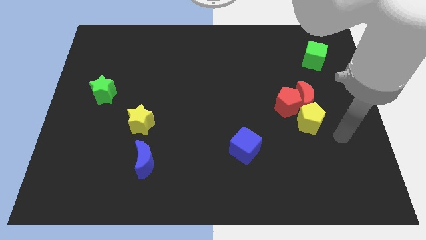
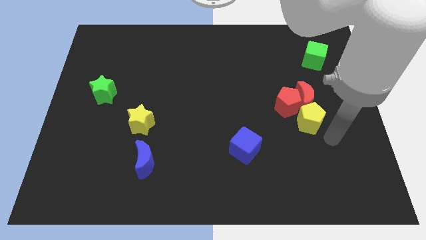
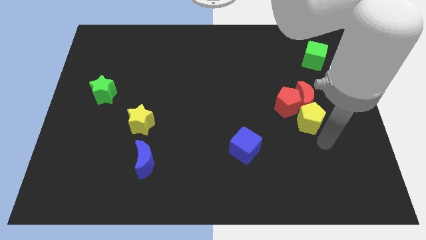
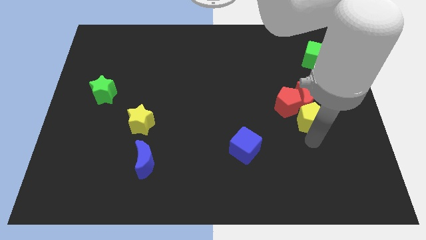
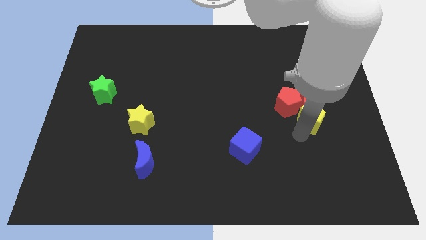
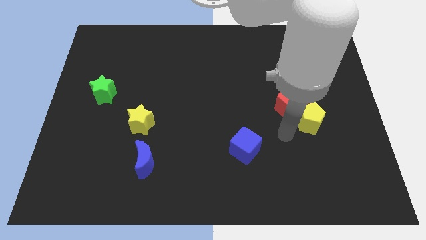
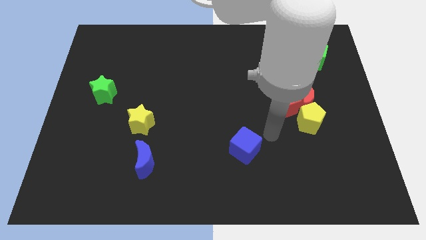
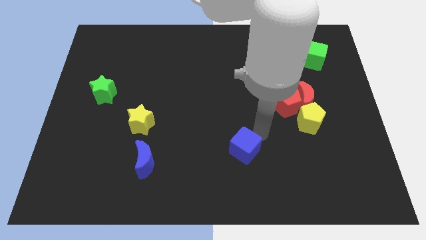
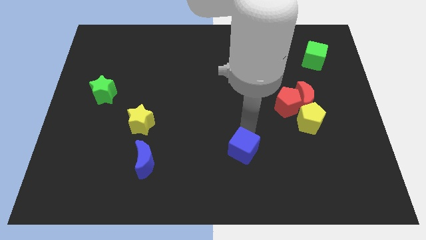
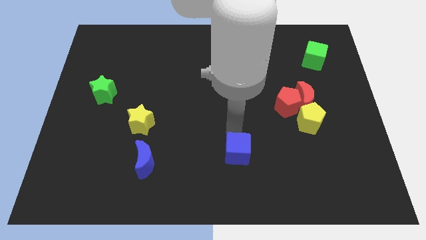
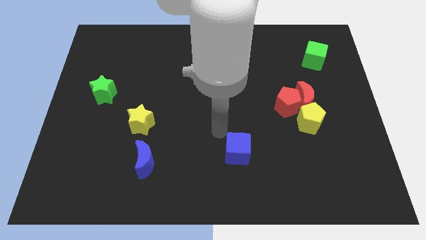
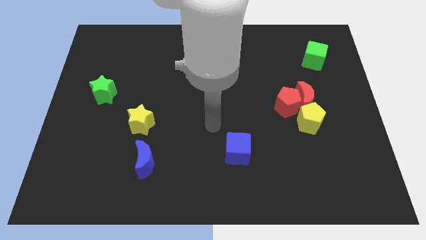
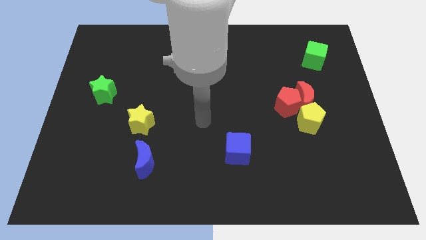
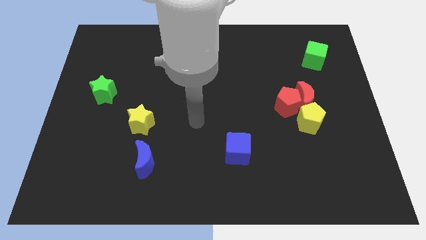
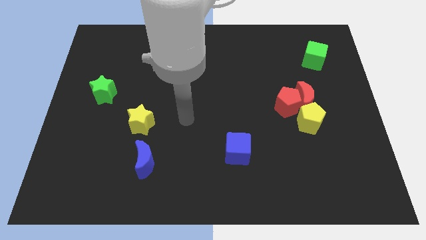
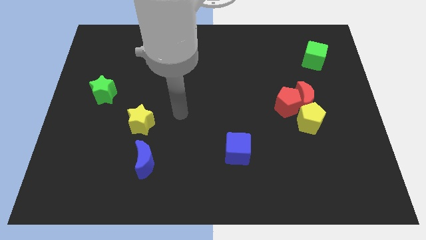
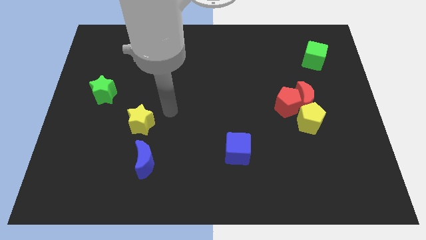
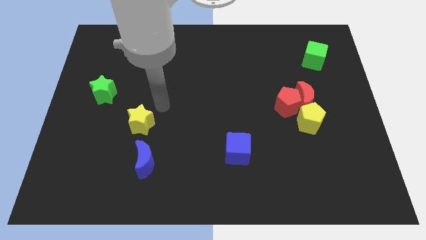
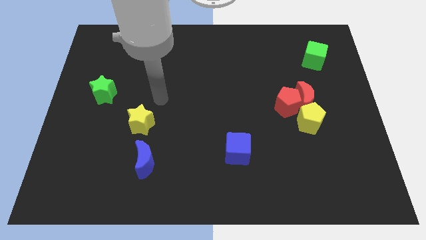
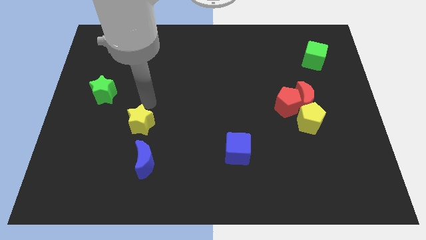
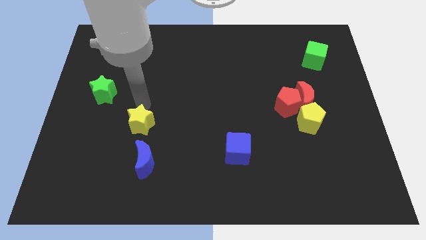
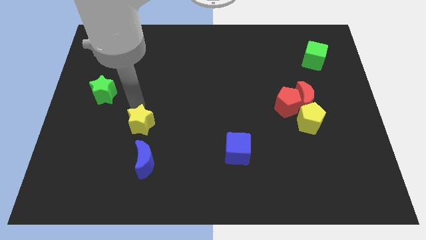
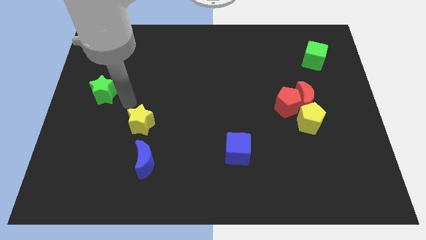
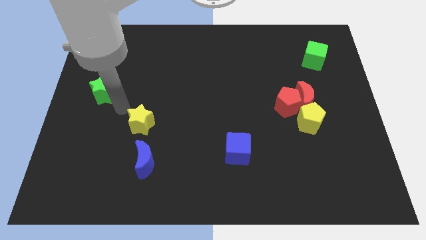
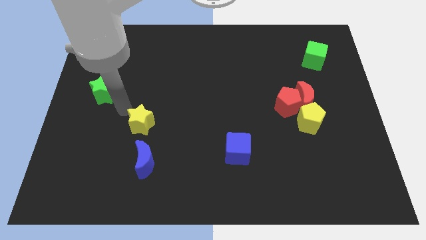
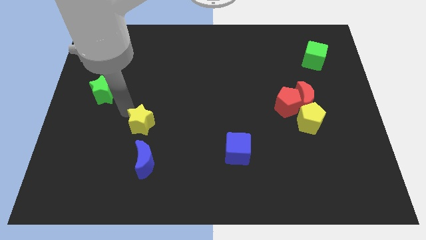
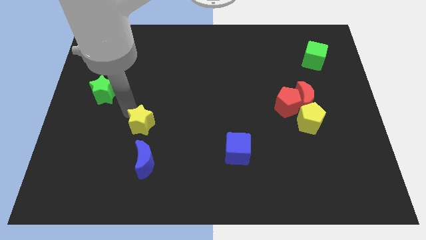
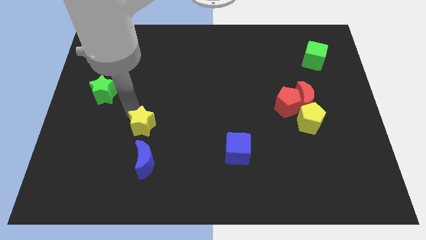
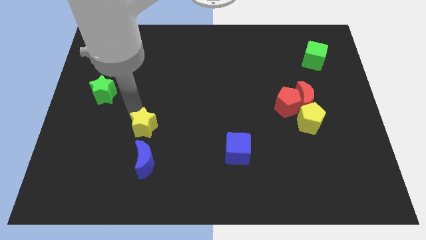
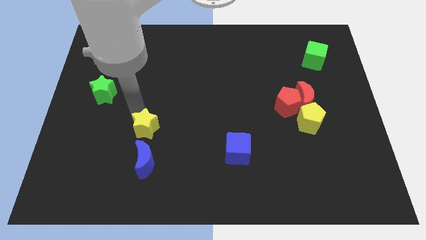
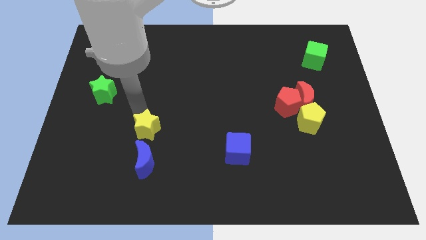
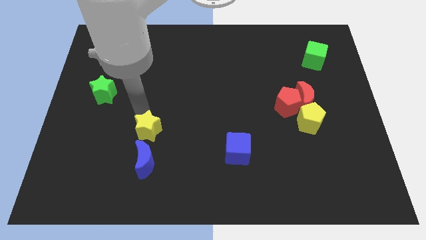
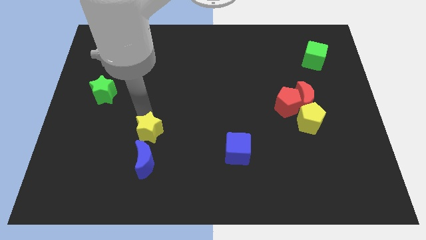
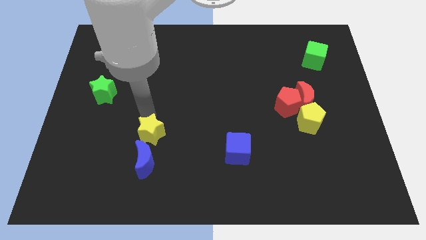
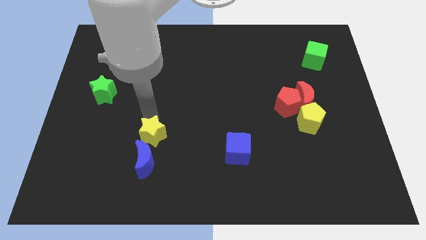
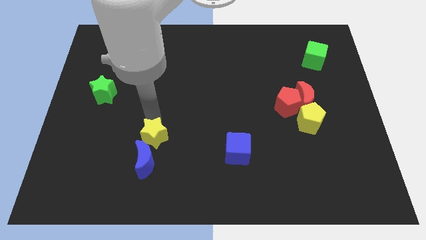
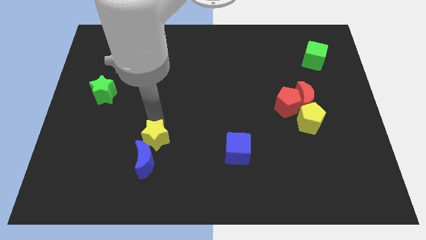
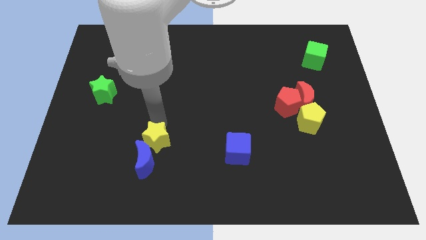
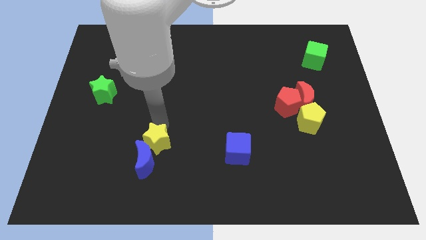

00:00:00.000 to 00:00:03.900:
push the yellow star somewhat diagonally down and right

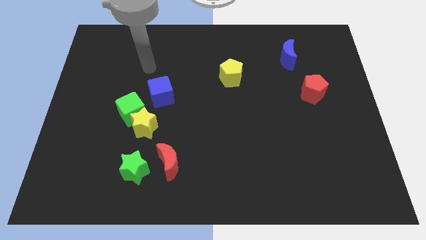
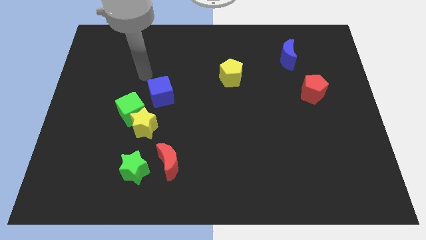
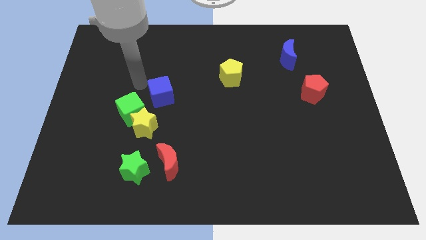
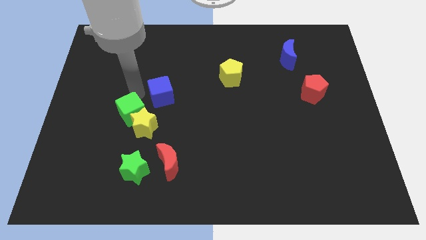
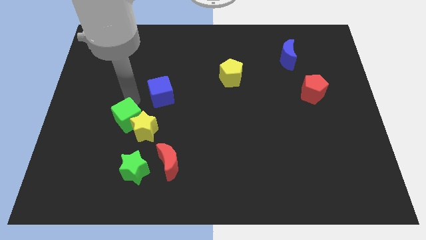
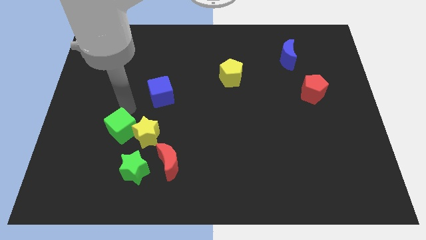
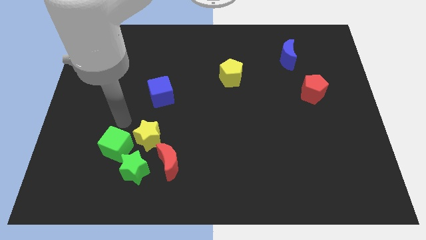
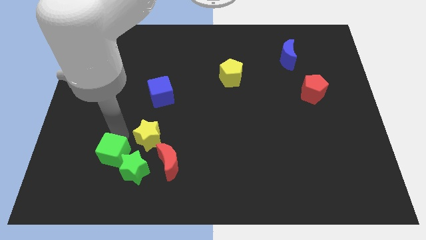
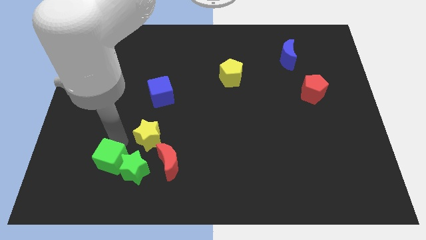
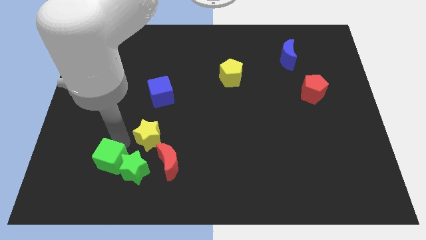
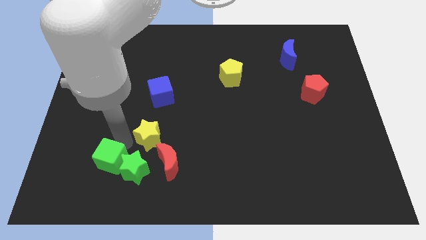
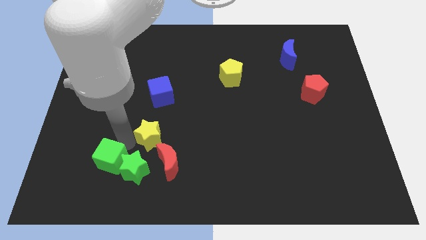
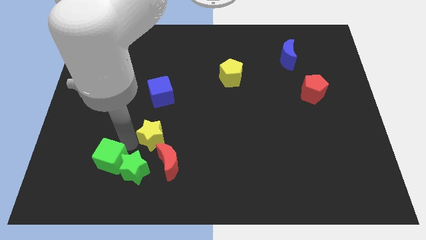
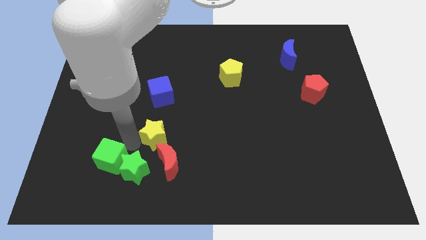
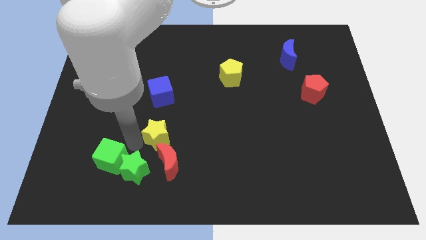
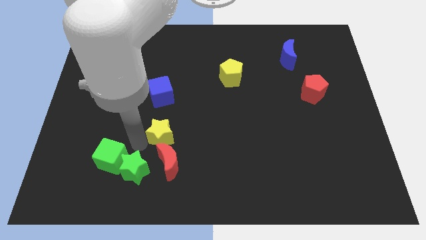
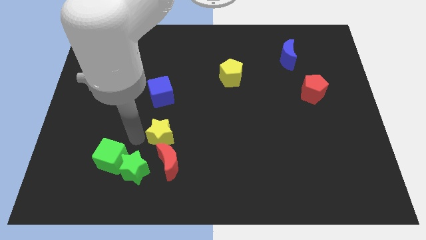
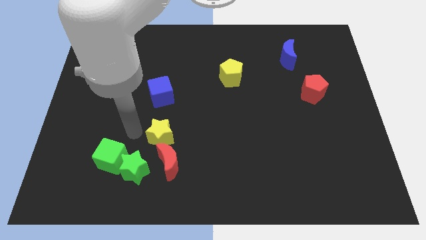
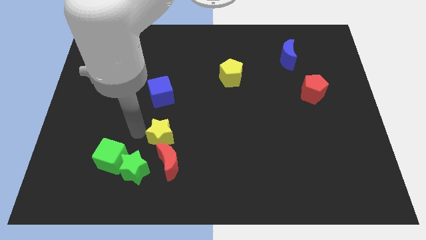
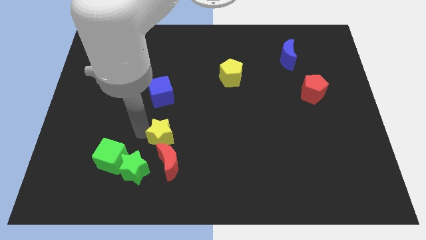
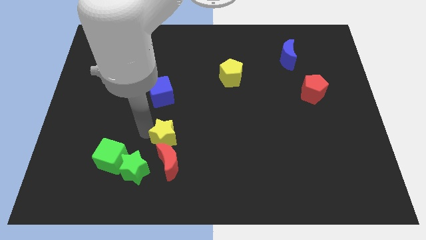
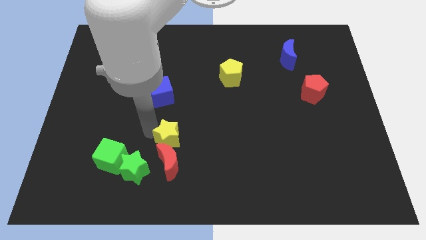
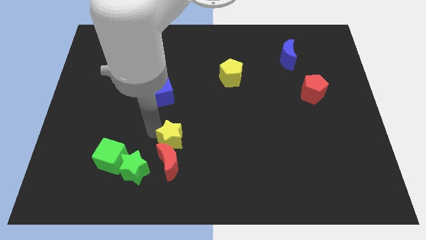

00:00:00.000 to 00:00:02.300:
move the yellow star downwards and to the right diagonally a bit

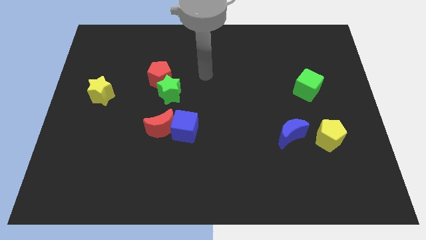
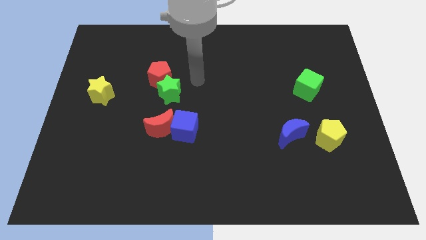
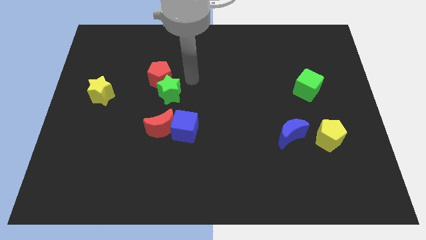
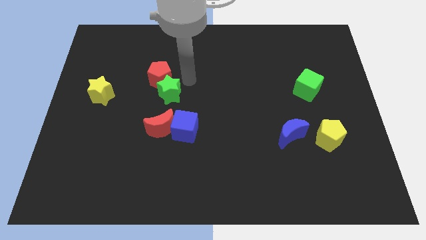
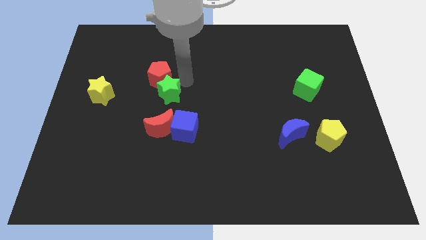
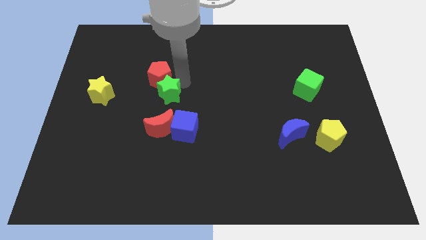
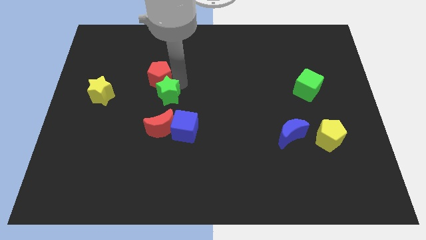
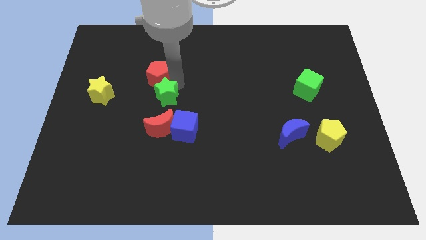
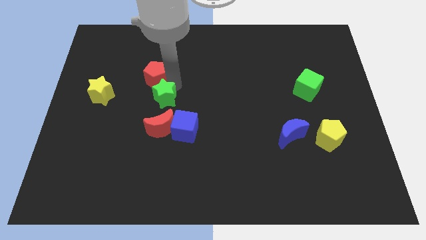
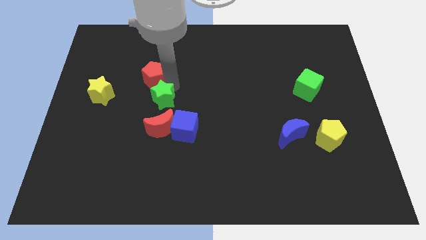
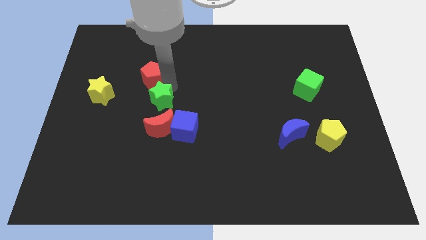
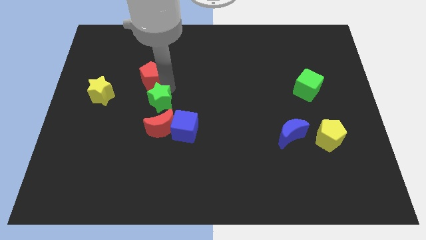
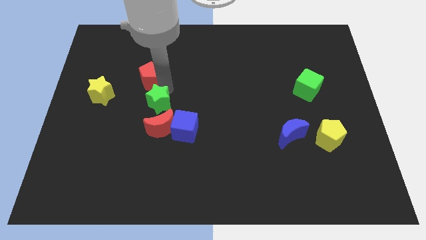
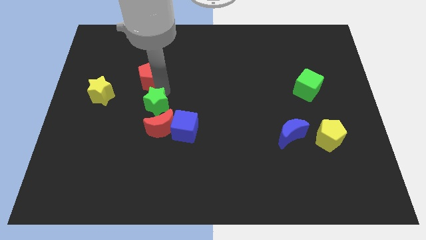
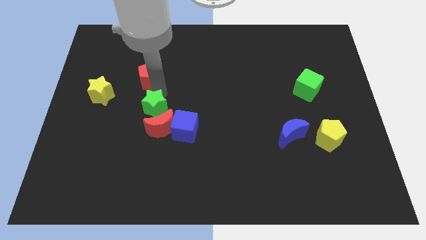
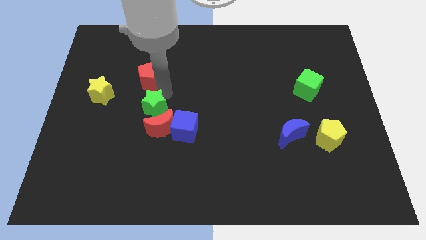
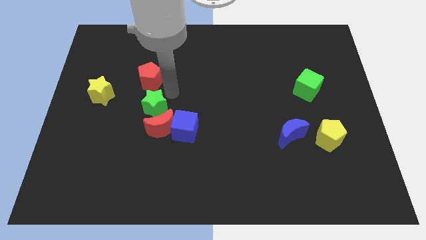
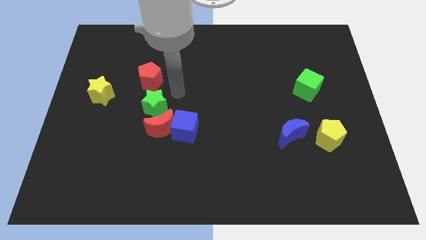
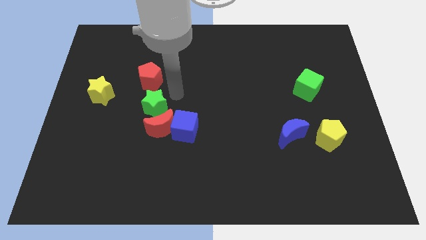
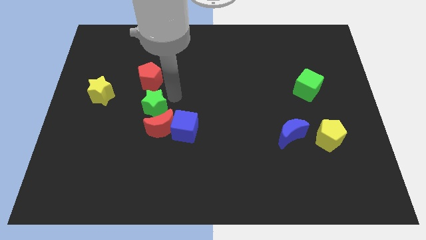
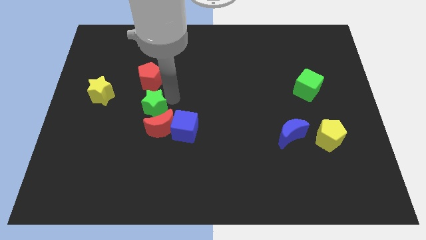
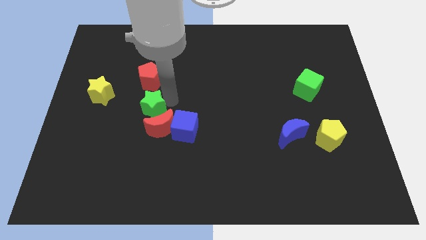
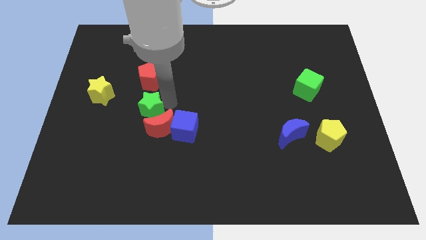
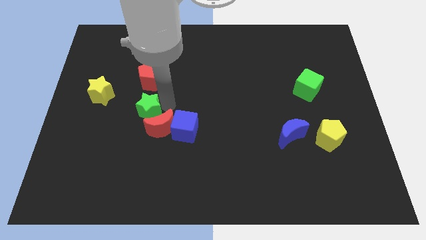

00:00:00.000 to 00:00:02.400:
push the green star down and left somewhat
